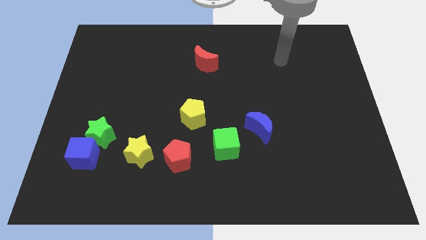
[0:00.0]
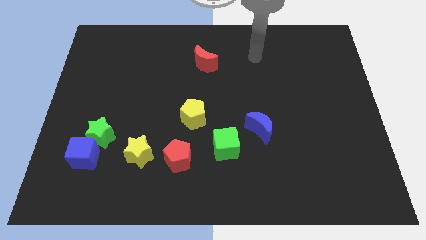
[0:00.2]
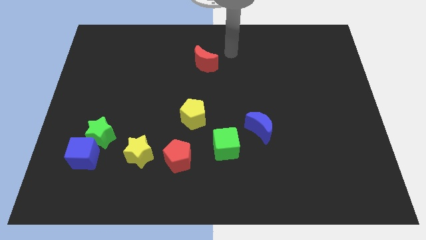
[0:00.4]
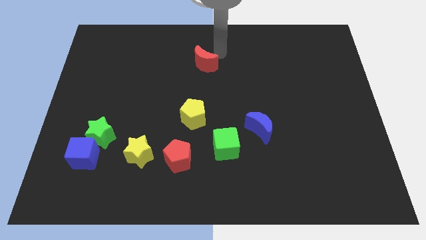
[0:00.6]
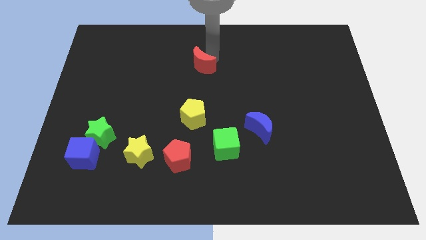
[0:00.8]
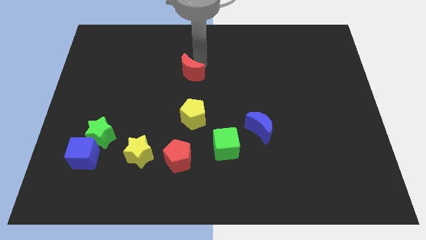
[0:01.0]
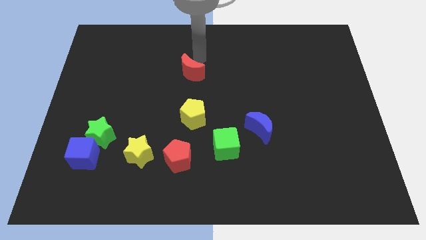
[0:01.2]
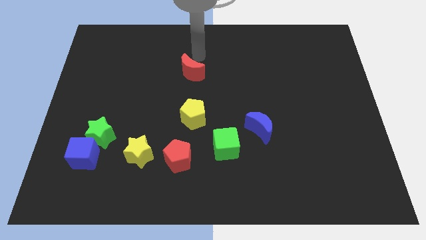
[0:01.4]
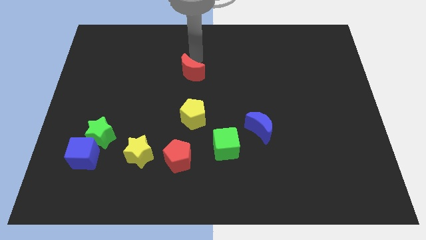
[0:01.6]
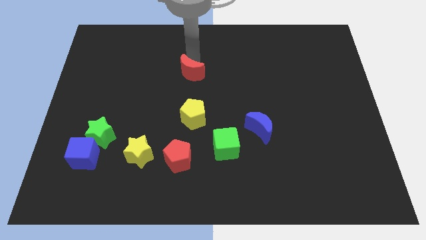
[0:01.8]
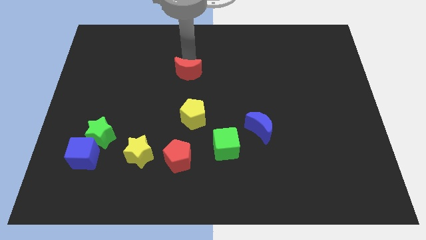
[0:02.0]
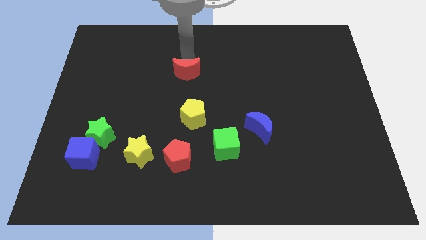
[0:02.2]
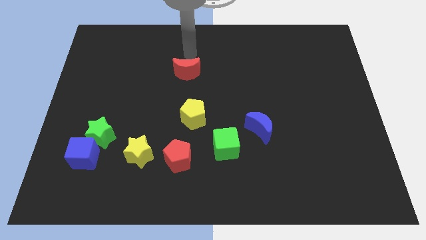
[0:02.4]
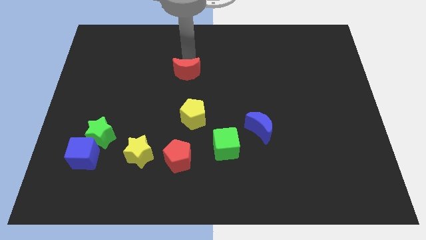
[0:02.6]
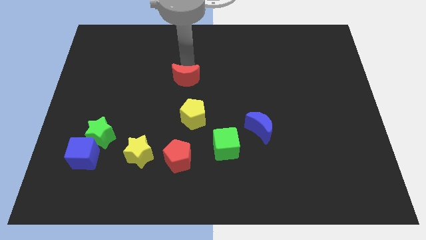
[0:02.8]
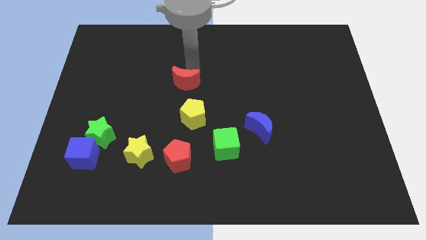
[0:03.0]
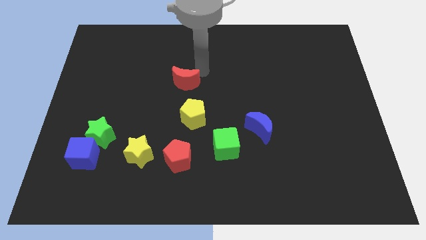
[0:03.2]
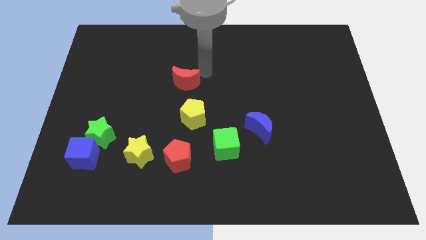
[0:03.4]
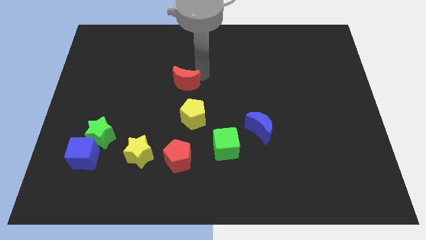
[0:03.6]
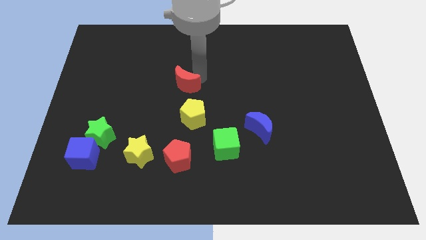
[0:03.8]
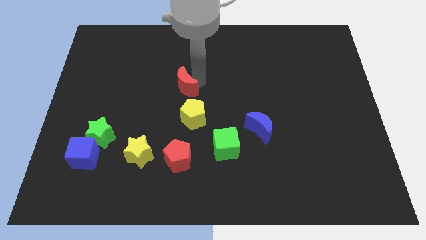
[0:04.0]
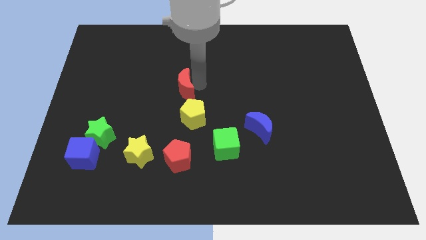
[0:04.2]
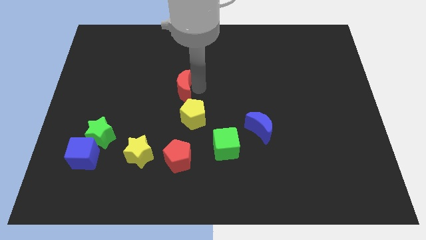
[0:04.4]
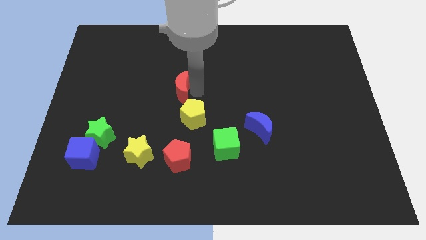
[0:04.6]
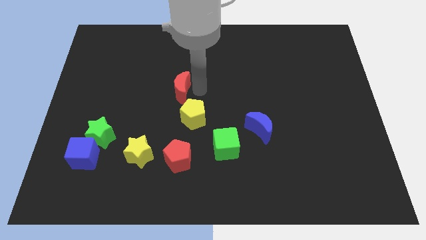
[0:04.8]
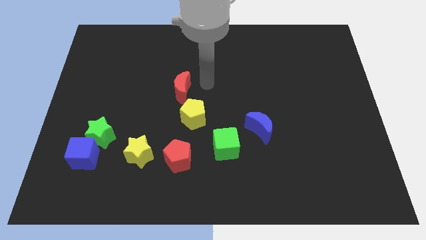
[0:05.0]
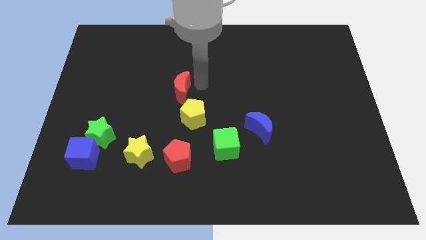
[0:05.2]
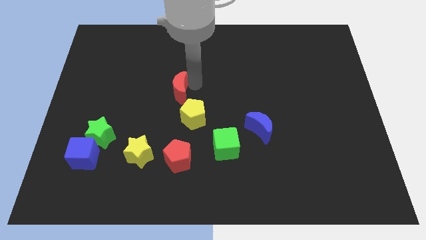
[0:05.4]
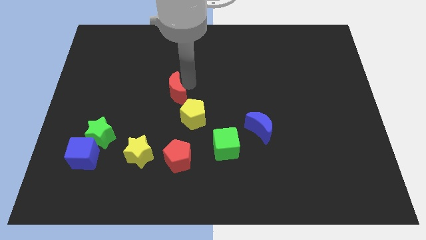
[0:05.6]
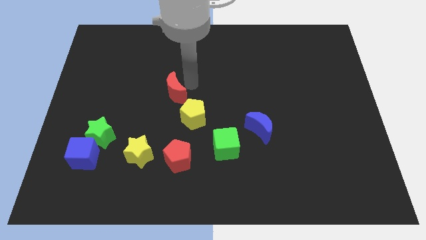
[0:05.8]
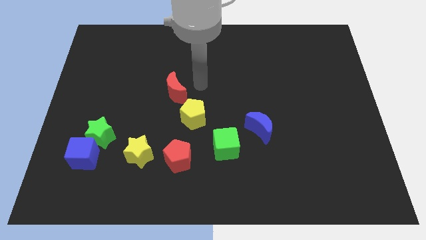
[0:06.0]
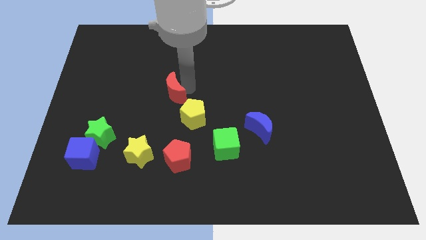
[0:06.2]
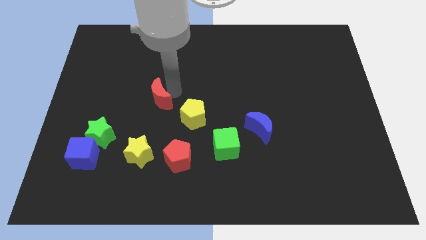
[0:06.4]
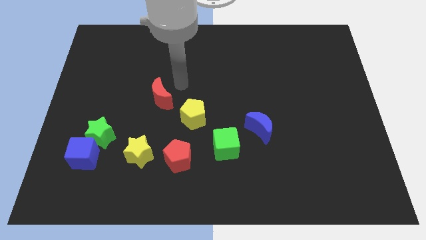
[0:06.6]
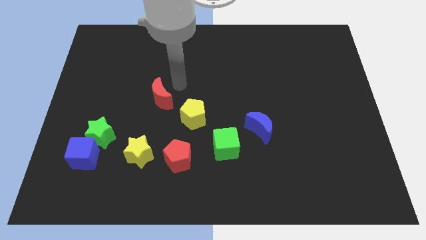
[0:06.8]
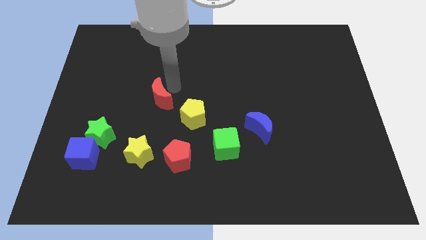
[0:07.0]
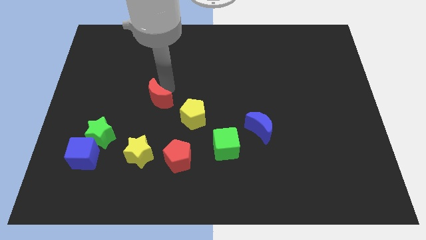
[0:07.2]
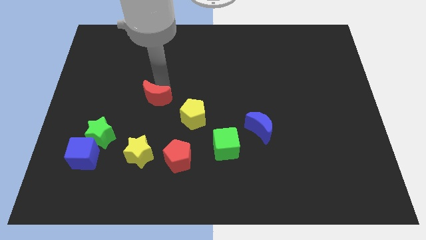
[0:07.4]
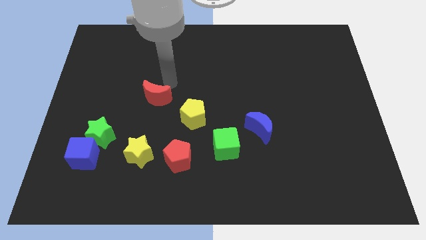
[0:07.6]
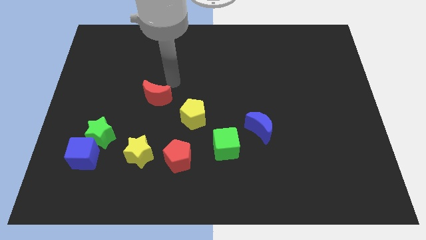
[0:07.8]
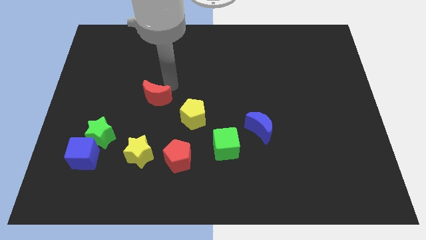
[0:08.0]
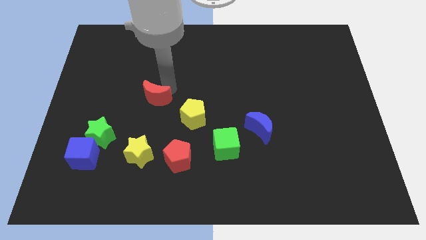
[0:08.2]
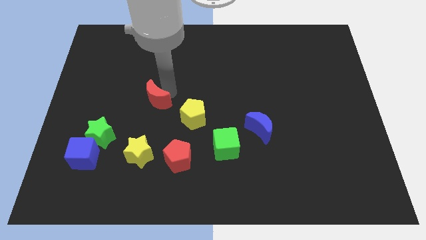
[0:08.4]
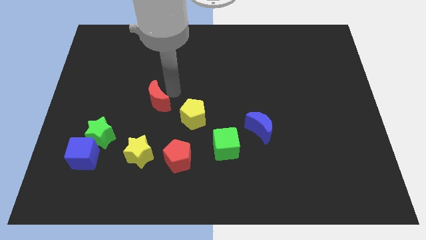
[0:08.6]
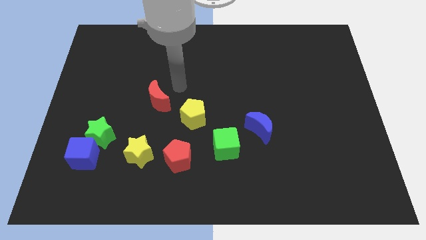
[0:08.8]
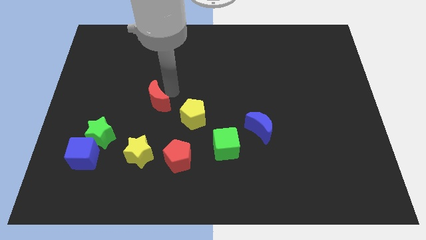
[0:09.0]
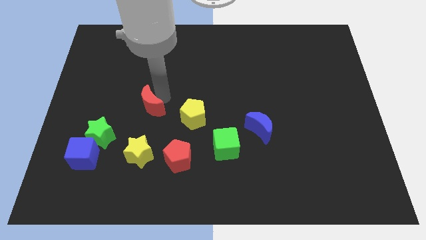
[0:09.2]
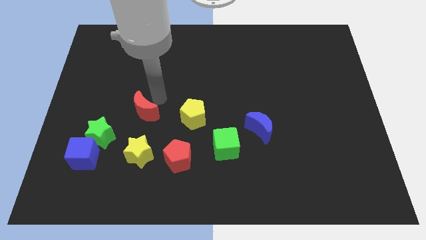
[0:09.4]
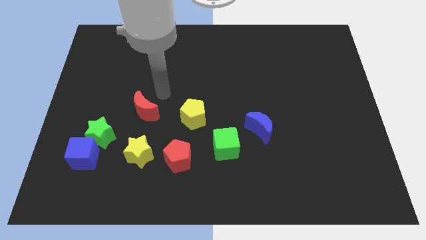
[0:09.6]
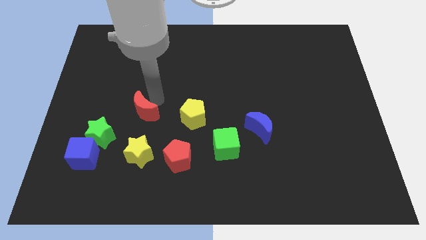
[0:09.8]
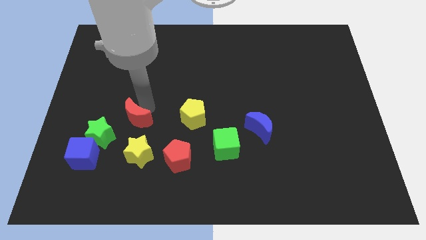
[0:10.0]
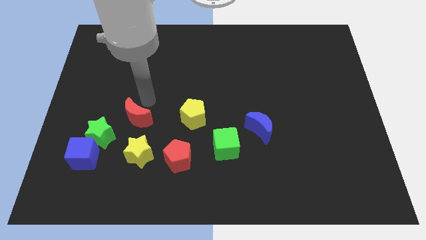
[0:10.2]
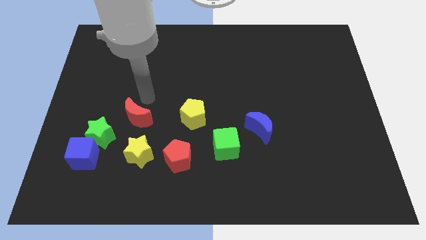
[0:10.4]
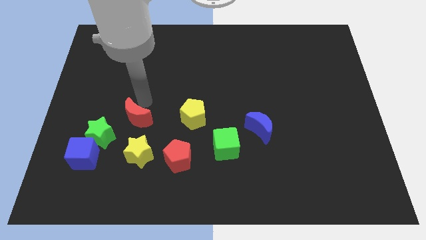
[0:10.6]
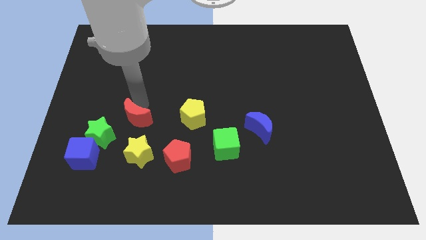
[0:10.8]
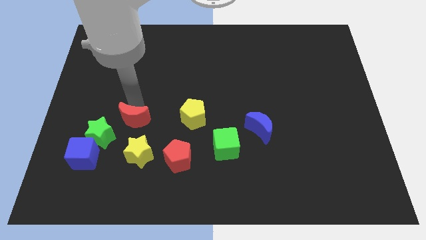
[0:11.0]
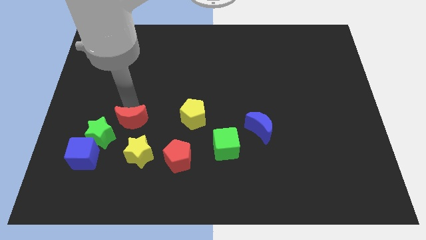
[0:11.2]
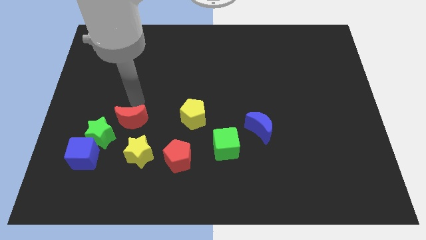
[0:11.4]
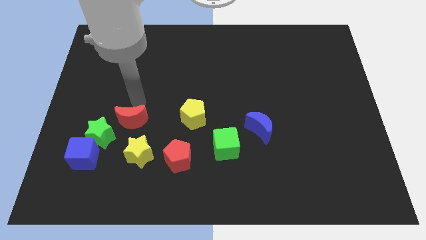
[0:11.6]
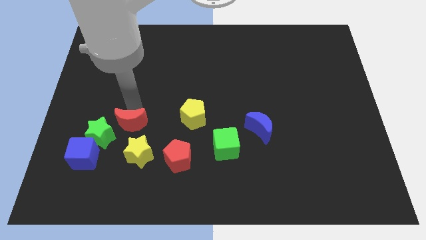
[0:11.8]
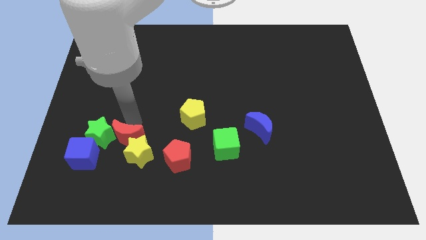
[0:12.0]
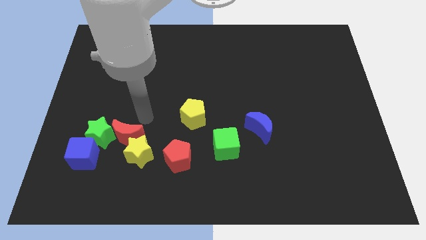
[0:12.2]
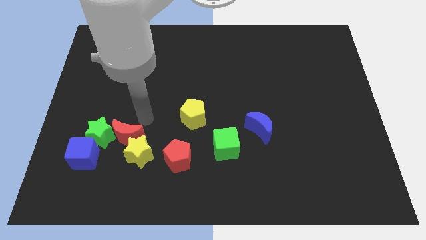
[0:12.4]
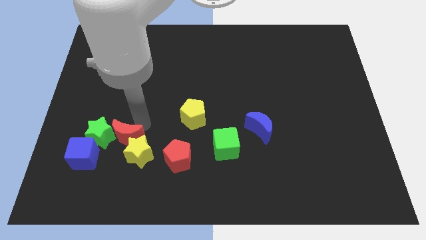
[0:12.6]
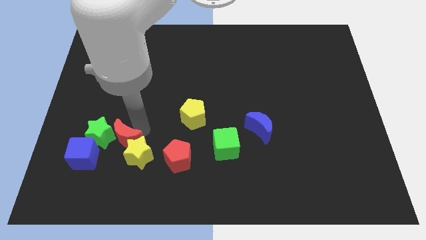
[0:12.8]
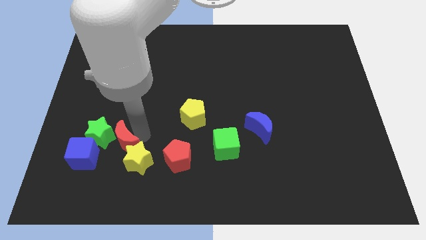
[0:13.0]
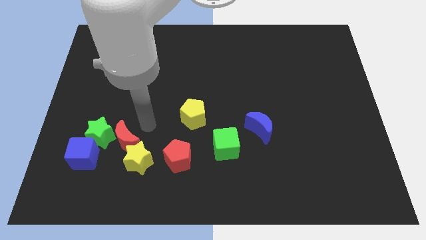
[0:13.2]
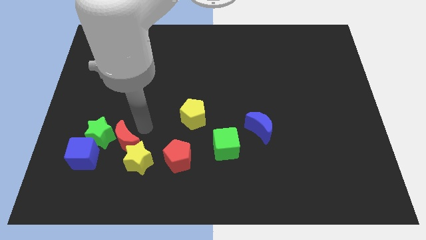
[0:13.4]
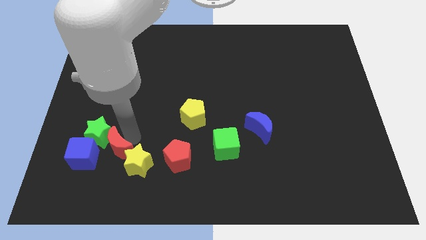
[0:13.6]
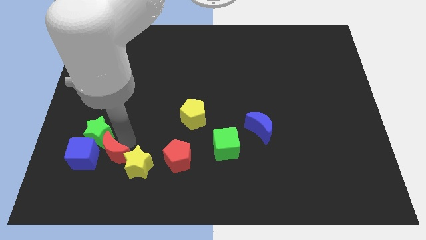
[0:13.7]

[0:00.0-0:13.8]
push the red moon to the bottom side of the green star

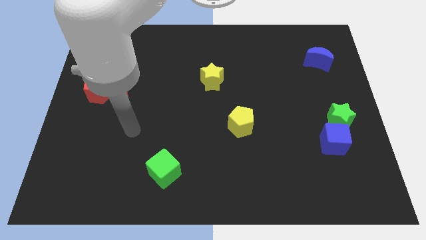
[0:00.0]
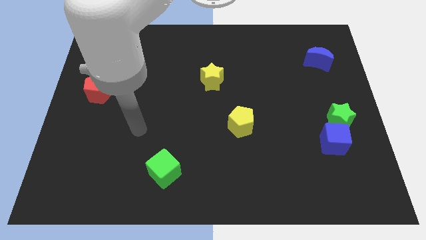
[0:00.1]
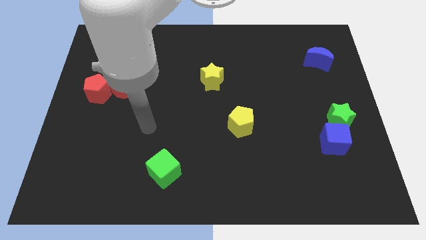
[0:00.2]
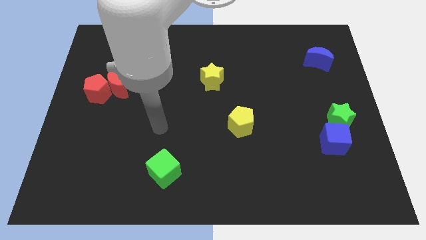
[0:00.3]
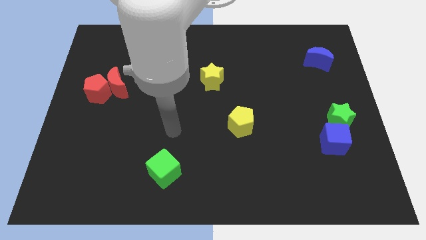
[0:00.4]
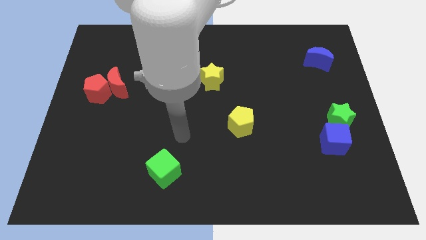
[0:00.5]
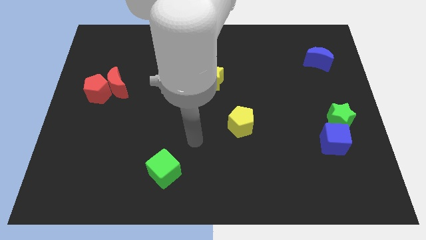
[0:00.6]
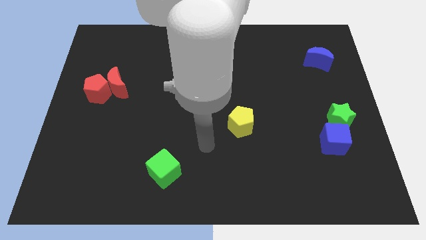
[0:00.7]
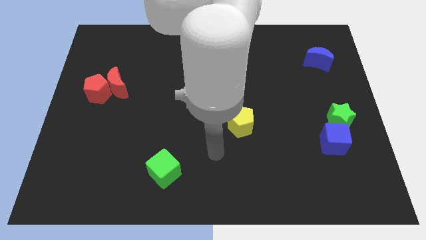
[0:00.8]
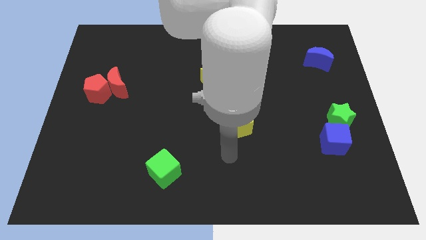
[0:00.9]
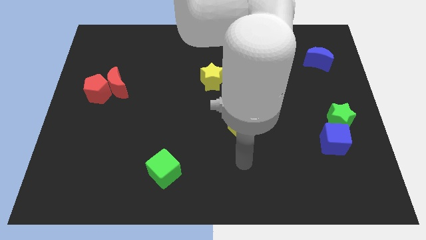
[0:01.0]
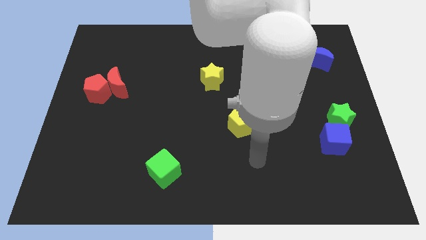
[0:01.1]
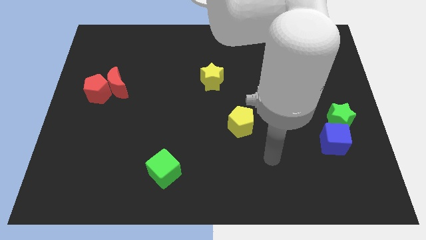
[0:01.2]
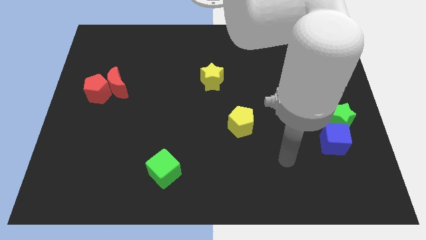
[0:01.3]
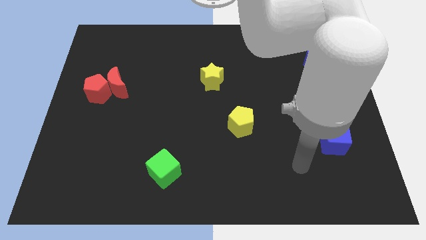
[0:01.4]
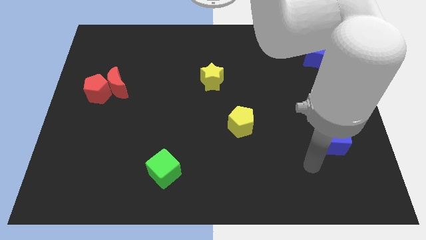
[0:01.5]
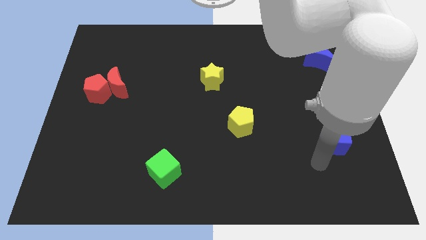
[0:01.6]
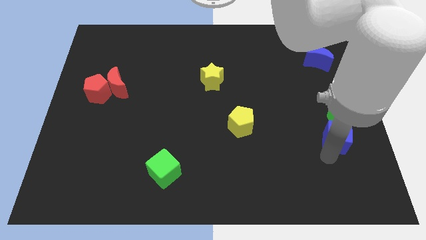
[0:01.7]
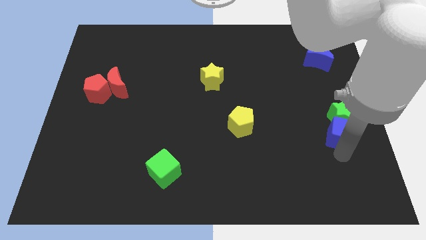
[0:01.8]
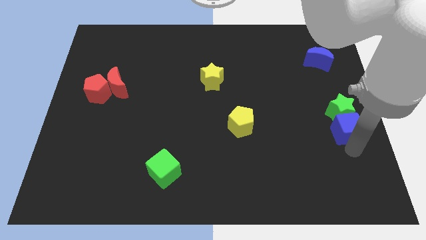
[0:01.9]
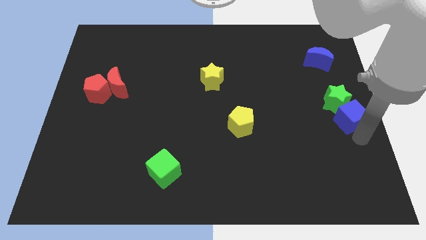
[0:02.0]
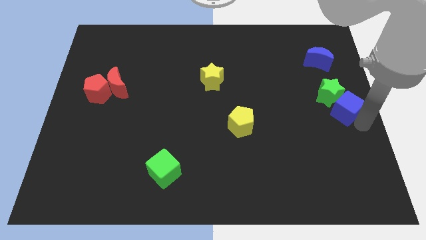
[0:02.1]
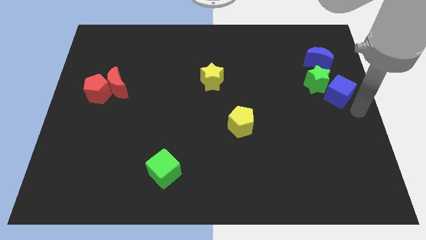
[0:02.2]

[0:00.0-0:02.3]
move the green star diagonally down and to the left of the blue moon
